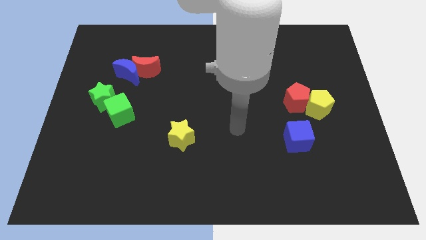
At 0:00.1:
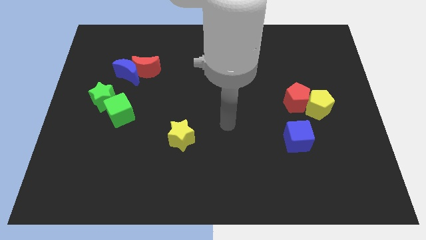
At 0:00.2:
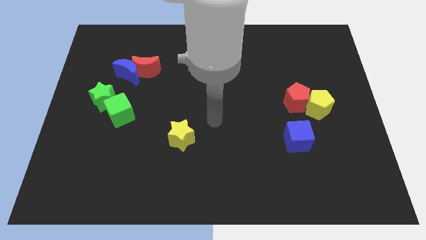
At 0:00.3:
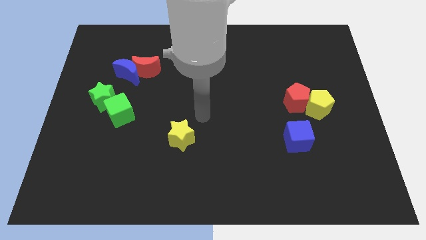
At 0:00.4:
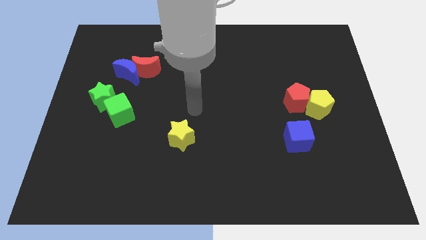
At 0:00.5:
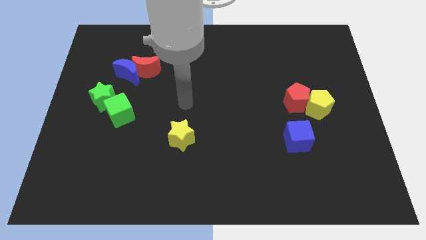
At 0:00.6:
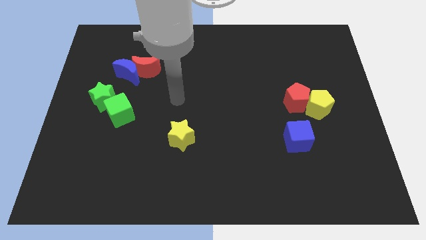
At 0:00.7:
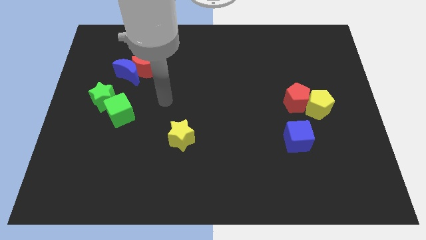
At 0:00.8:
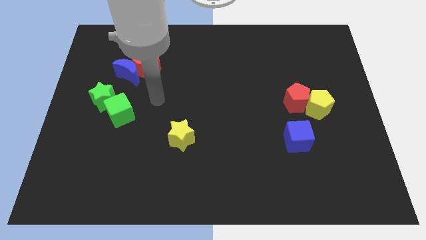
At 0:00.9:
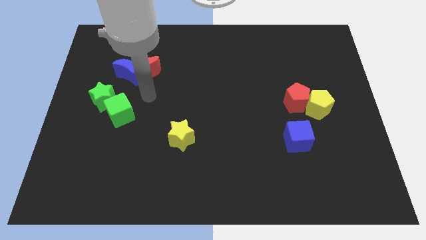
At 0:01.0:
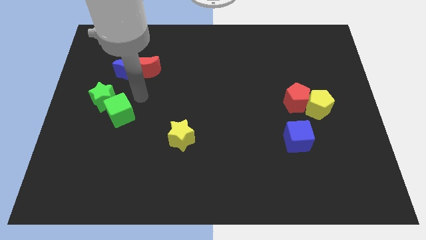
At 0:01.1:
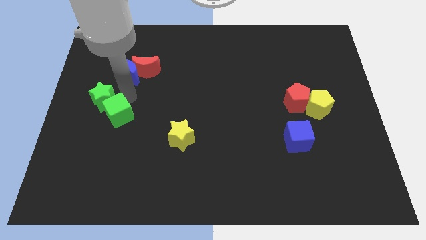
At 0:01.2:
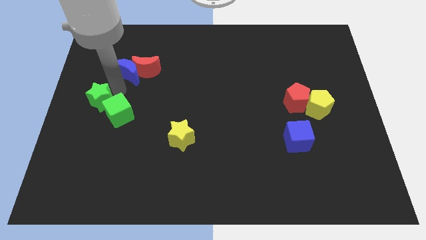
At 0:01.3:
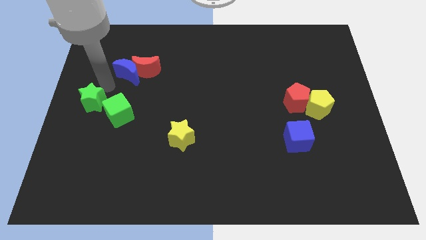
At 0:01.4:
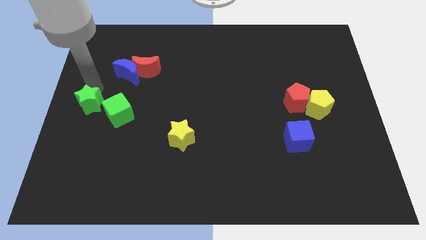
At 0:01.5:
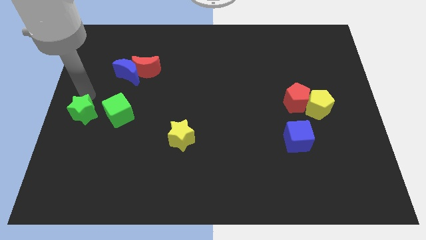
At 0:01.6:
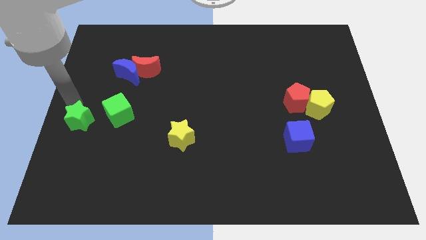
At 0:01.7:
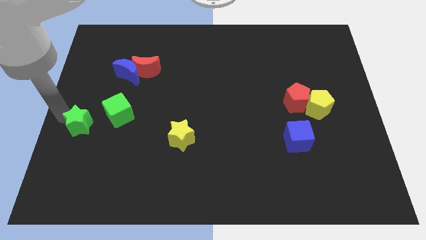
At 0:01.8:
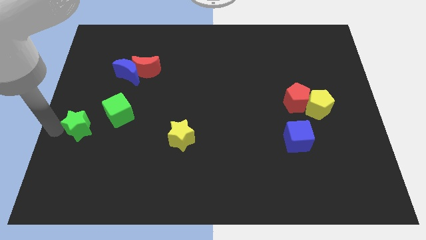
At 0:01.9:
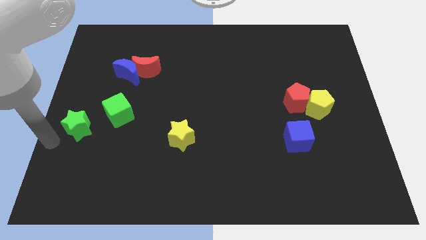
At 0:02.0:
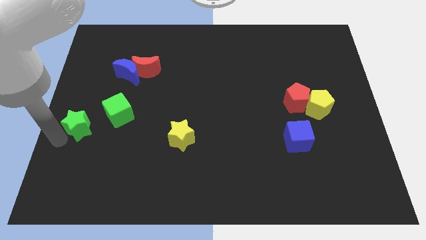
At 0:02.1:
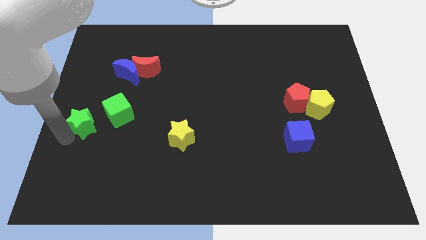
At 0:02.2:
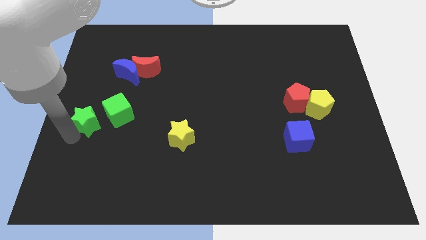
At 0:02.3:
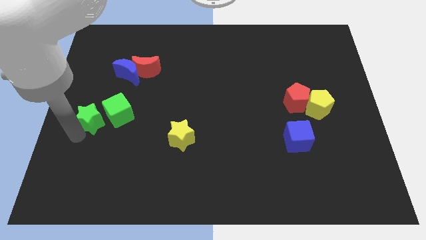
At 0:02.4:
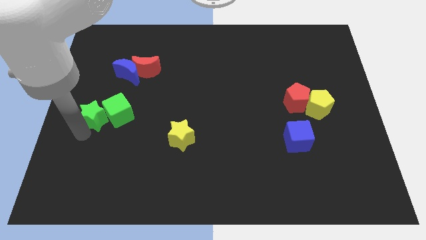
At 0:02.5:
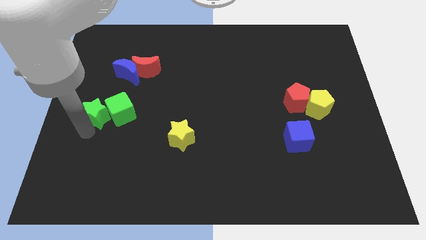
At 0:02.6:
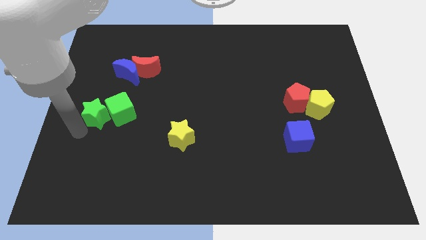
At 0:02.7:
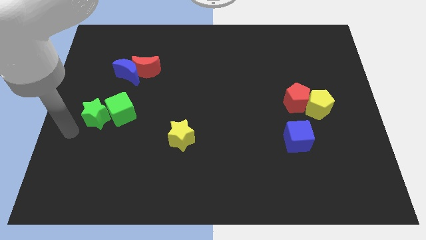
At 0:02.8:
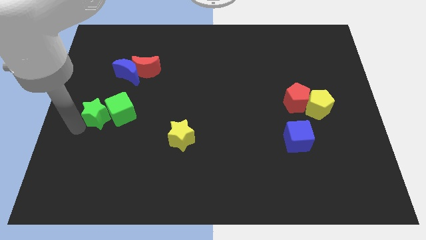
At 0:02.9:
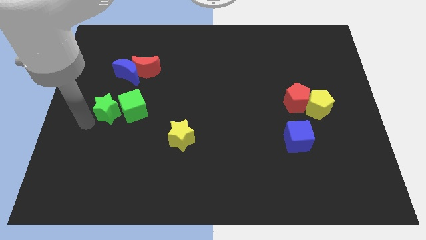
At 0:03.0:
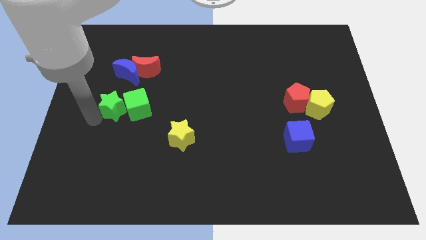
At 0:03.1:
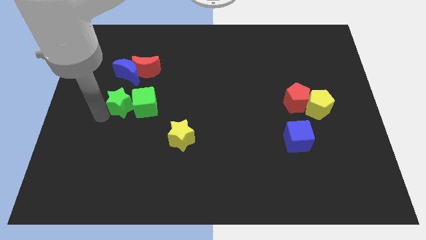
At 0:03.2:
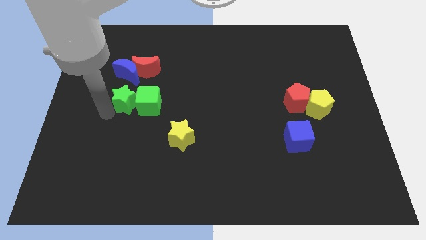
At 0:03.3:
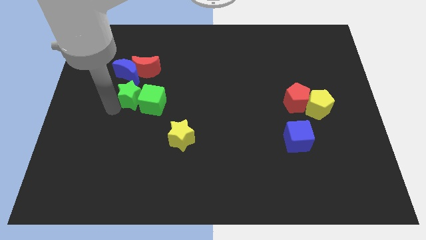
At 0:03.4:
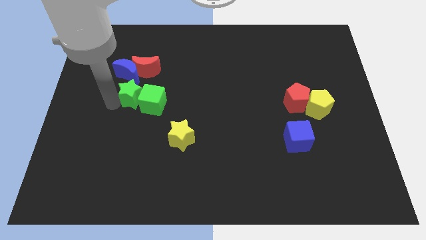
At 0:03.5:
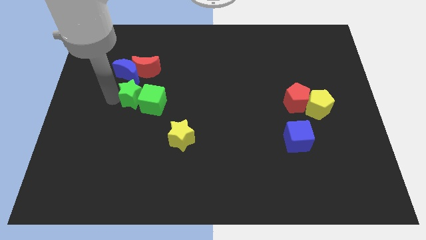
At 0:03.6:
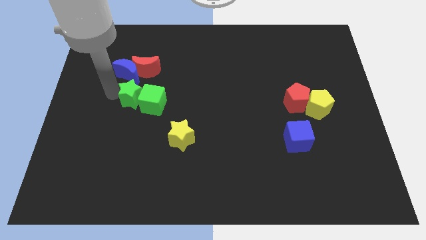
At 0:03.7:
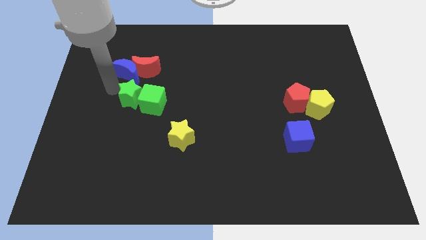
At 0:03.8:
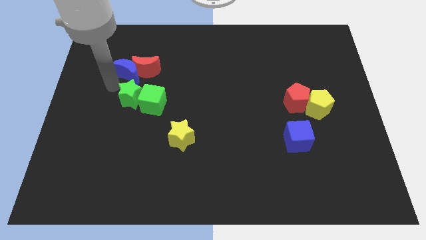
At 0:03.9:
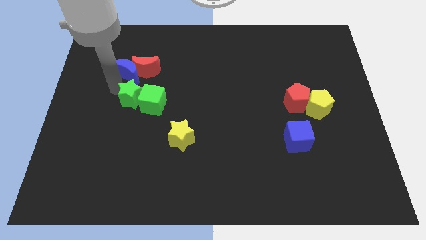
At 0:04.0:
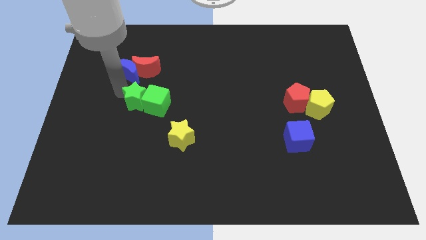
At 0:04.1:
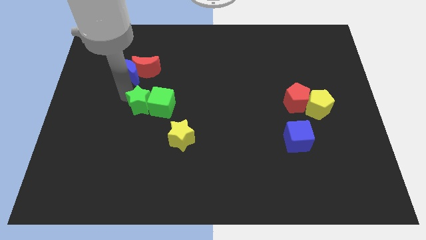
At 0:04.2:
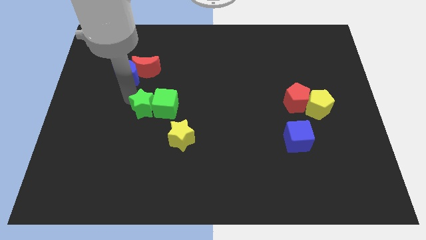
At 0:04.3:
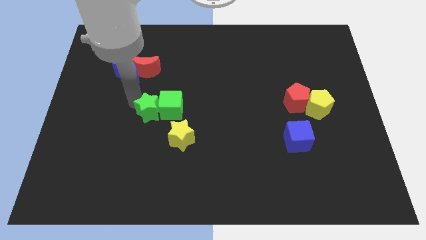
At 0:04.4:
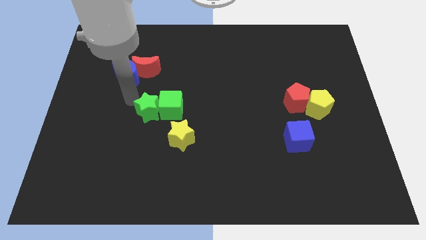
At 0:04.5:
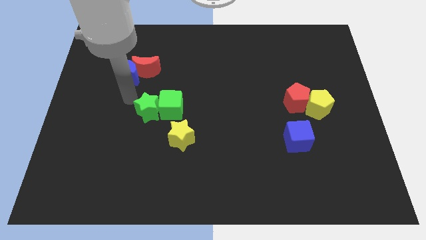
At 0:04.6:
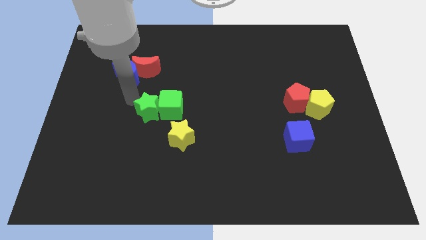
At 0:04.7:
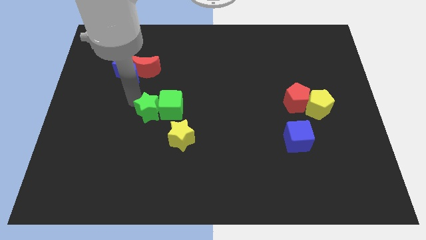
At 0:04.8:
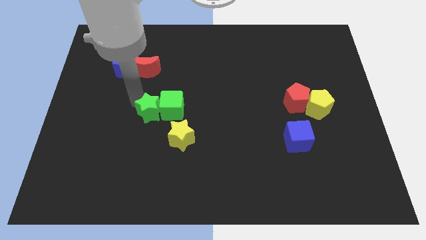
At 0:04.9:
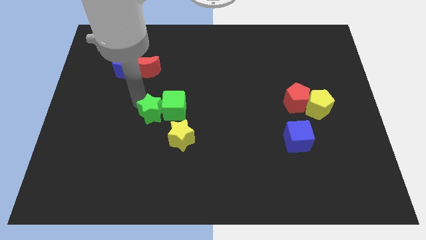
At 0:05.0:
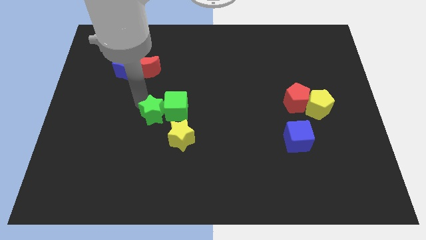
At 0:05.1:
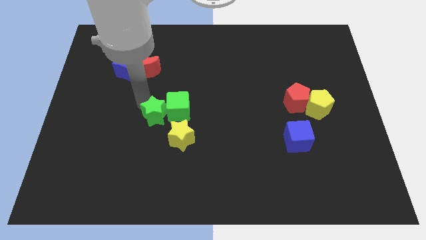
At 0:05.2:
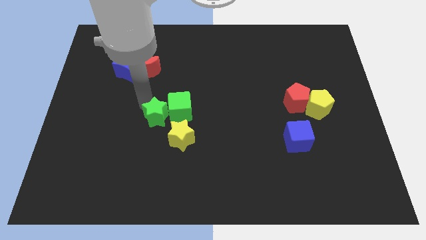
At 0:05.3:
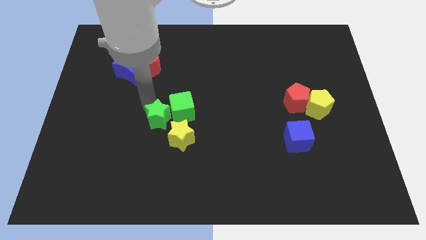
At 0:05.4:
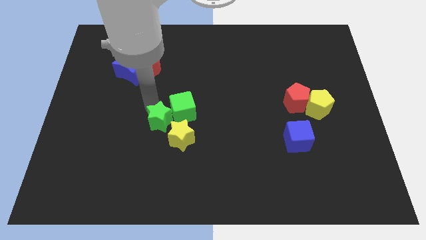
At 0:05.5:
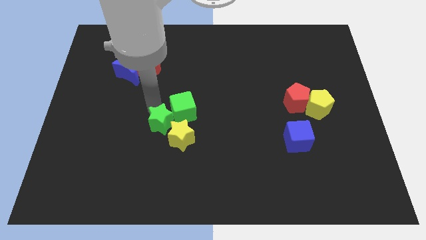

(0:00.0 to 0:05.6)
slide the green star next to the yellow star

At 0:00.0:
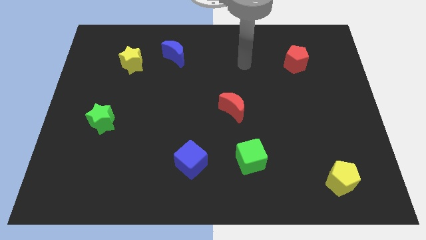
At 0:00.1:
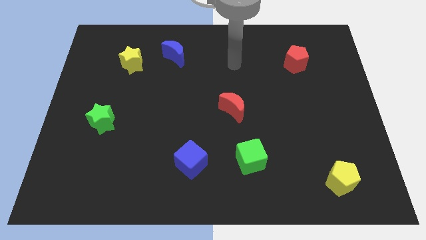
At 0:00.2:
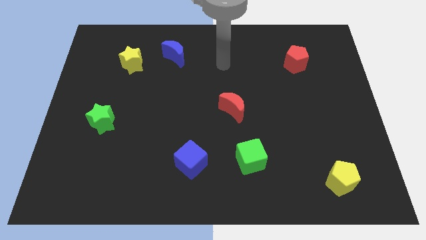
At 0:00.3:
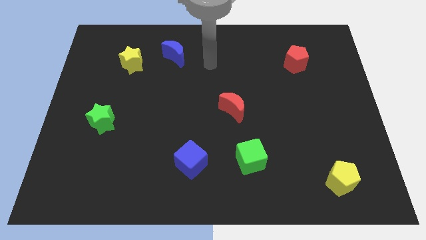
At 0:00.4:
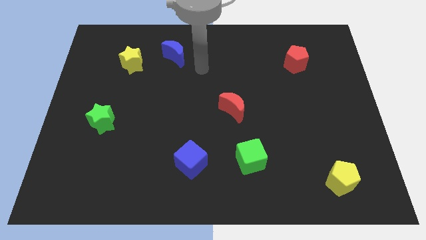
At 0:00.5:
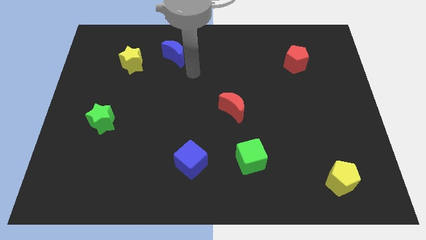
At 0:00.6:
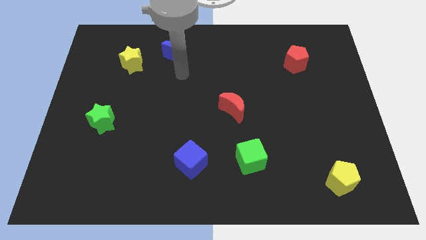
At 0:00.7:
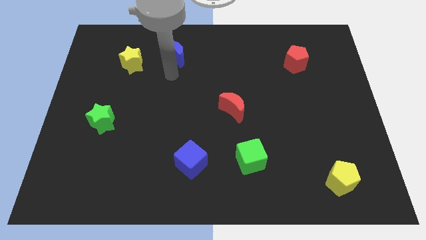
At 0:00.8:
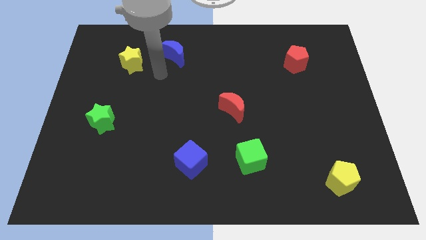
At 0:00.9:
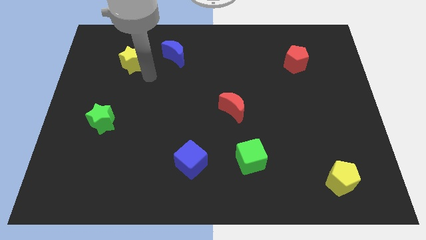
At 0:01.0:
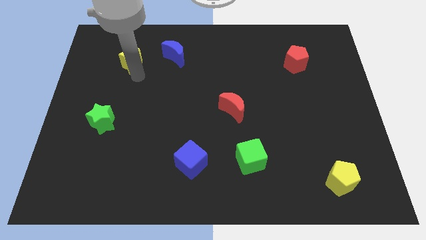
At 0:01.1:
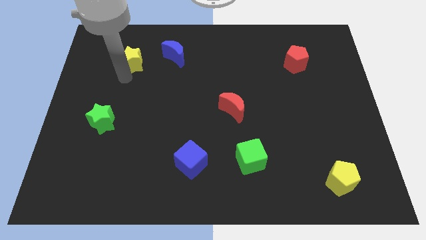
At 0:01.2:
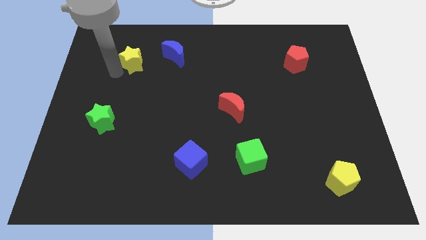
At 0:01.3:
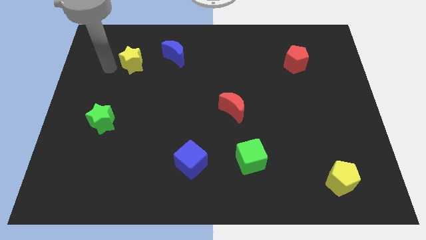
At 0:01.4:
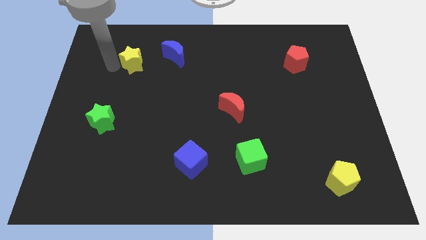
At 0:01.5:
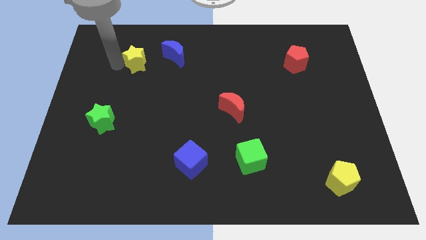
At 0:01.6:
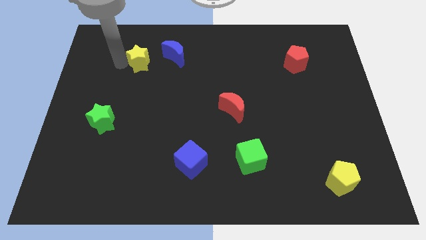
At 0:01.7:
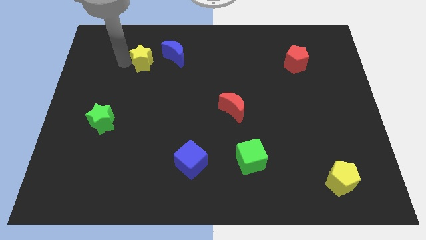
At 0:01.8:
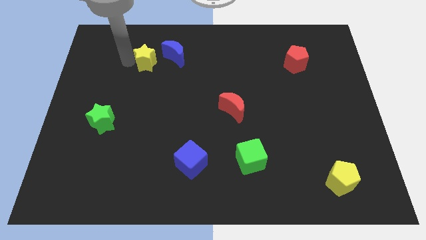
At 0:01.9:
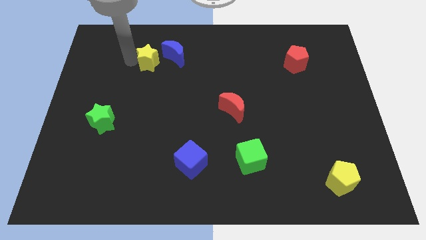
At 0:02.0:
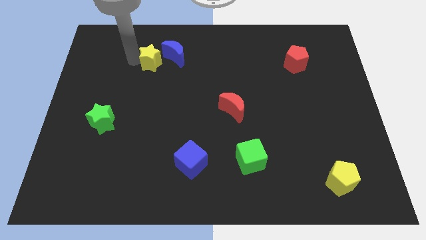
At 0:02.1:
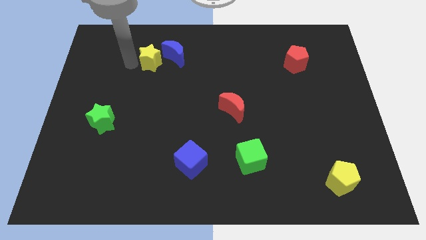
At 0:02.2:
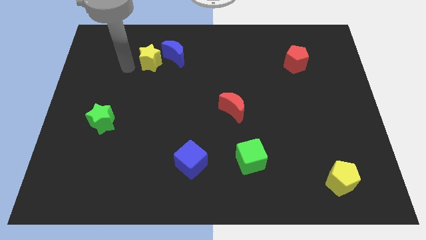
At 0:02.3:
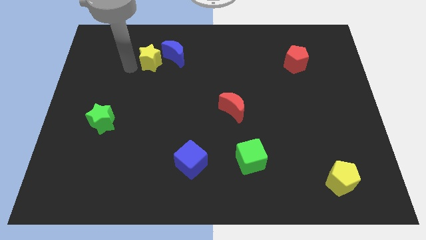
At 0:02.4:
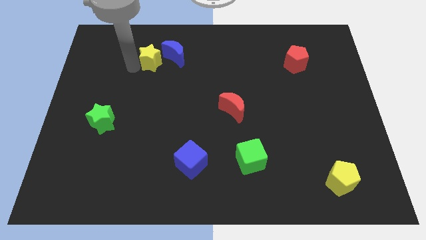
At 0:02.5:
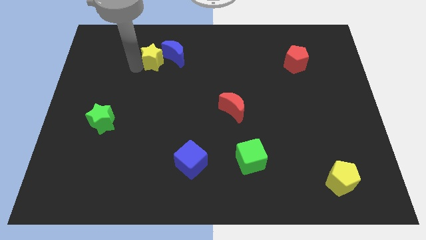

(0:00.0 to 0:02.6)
slide the yellow star towards the blue moon
